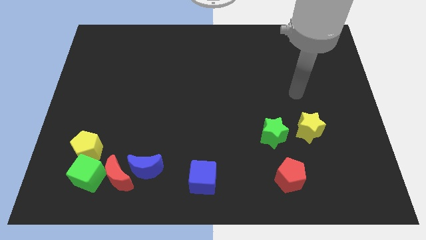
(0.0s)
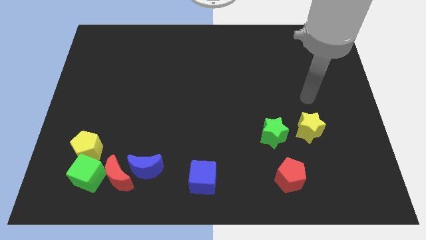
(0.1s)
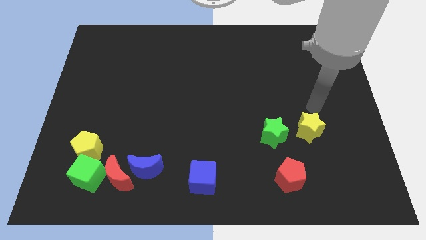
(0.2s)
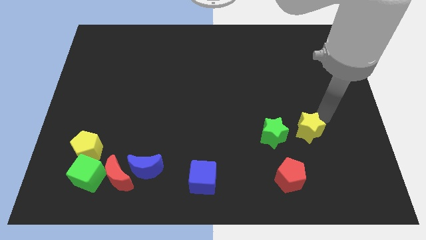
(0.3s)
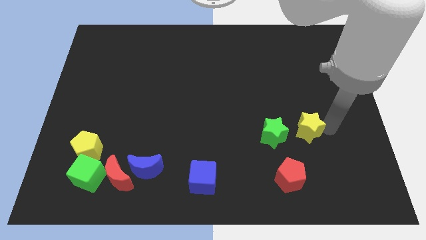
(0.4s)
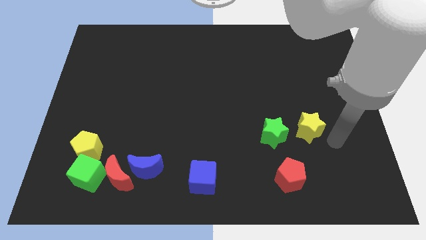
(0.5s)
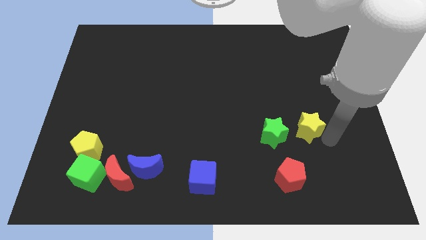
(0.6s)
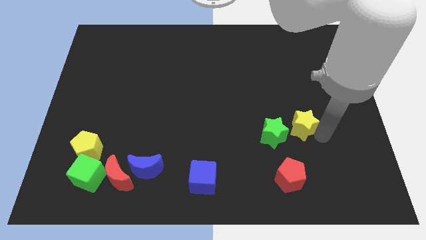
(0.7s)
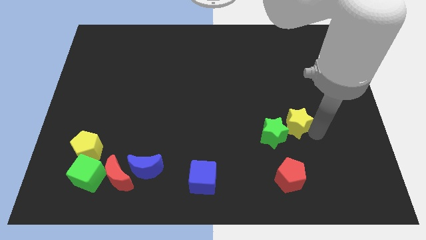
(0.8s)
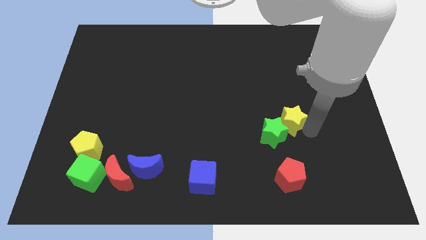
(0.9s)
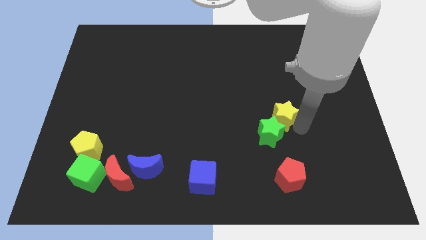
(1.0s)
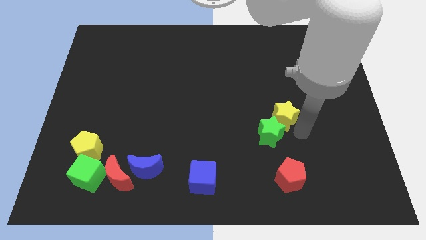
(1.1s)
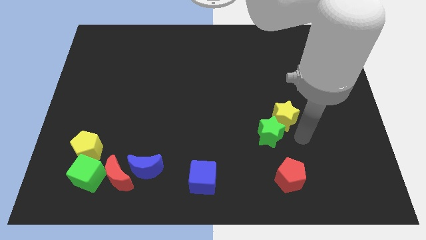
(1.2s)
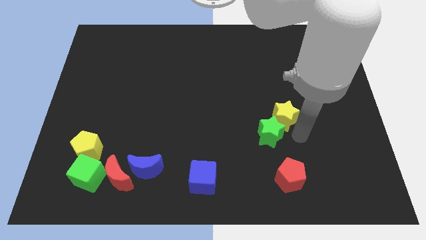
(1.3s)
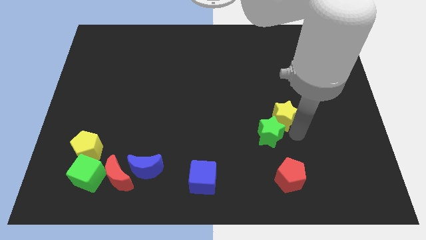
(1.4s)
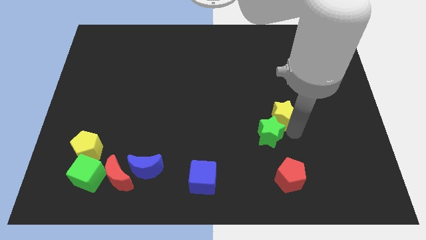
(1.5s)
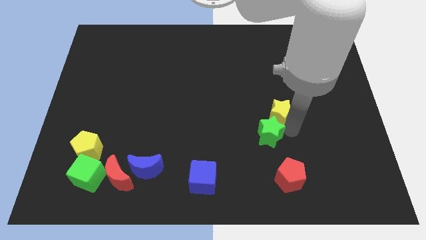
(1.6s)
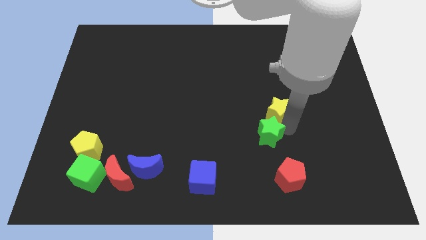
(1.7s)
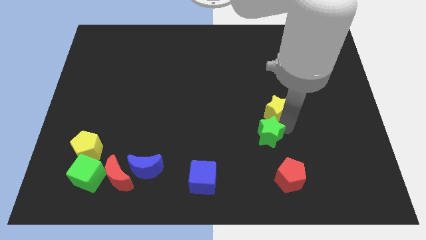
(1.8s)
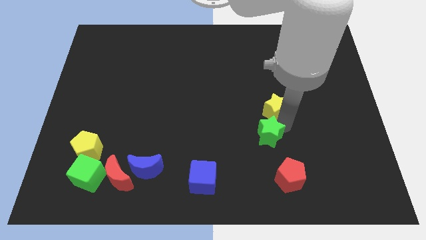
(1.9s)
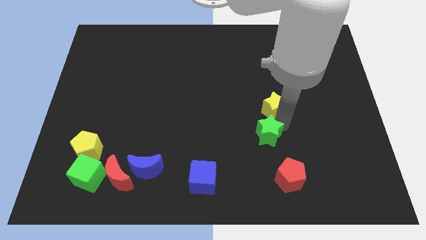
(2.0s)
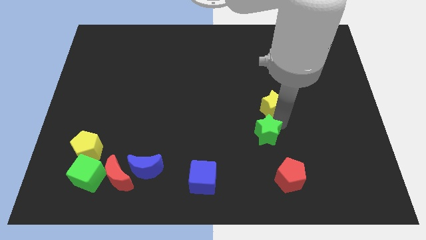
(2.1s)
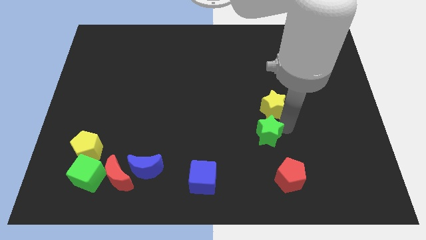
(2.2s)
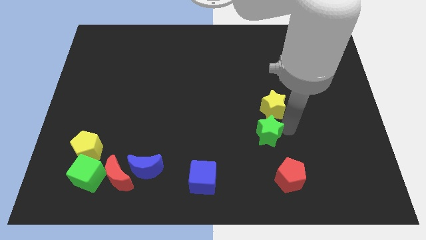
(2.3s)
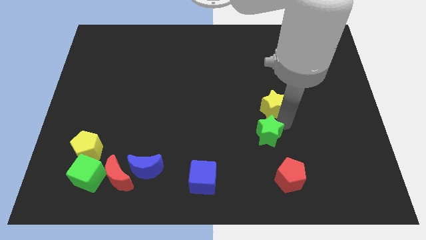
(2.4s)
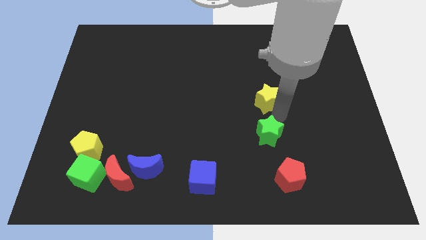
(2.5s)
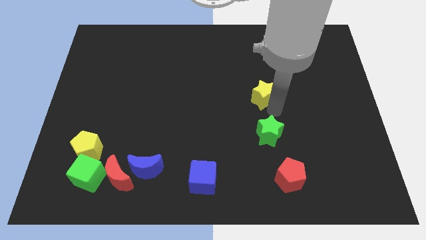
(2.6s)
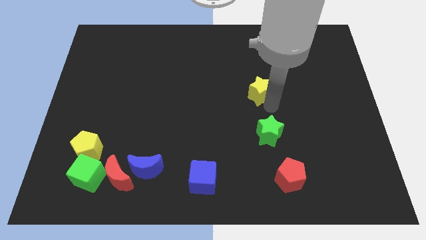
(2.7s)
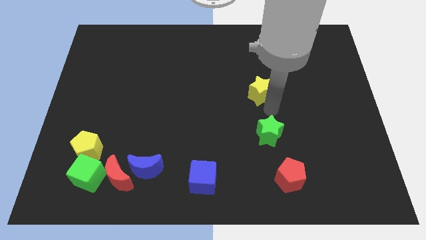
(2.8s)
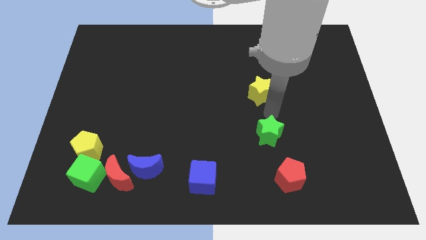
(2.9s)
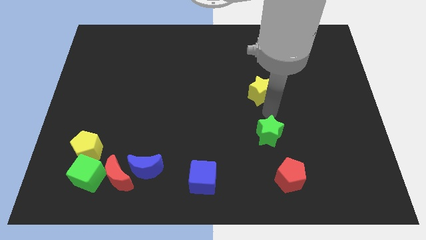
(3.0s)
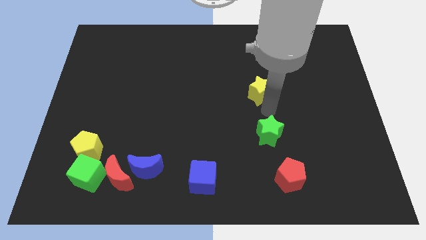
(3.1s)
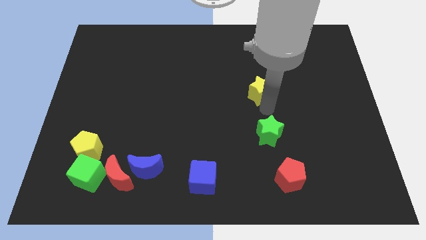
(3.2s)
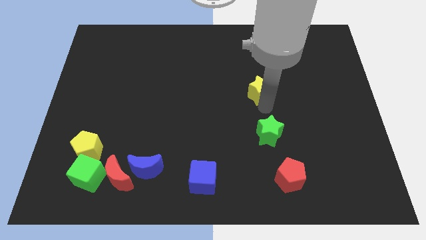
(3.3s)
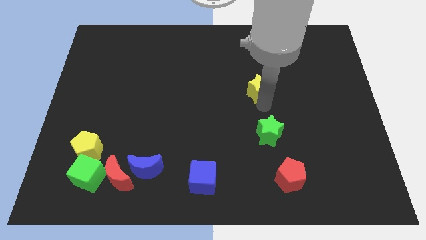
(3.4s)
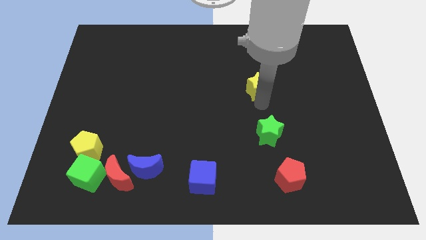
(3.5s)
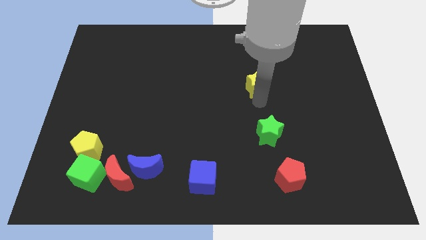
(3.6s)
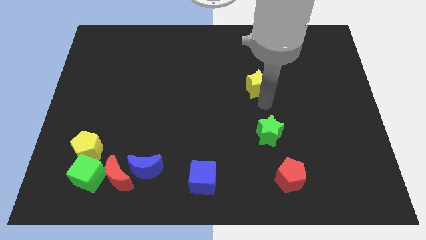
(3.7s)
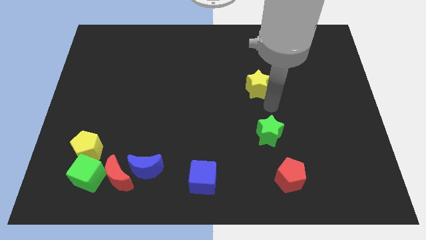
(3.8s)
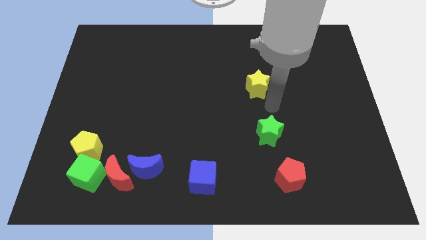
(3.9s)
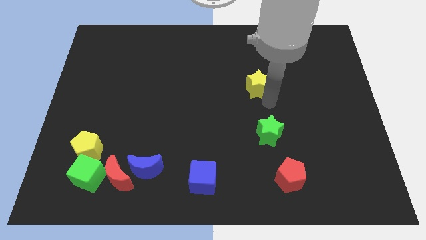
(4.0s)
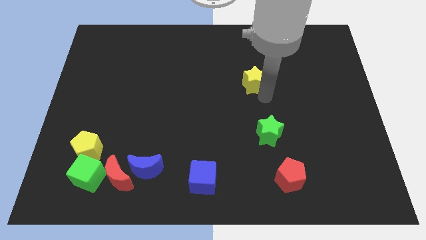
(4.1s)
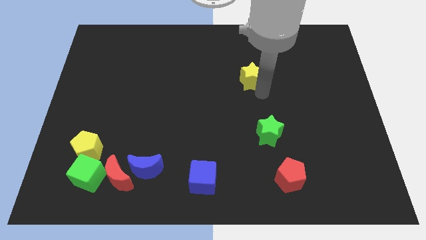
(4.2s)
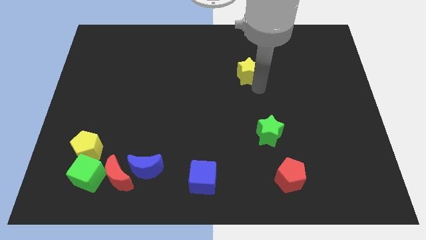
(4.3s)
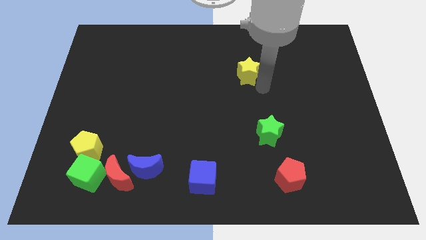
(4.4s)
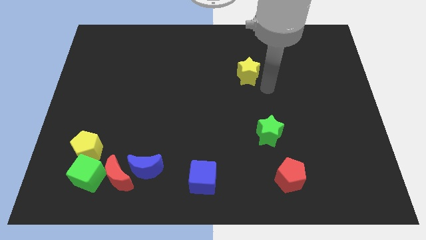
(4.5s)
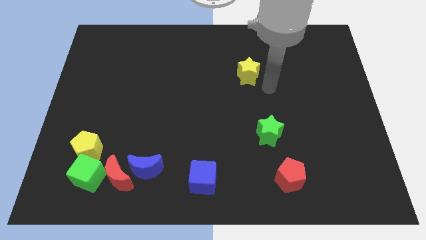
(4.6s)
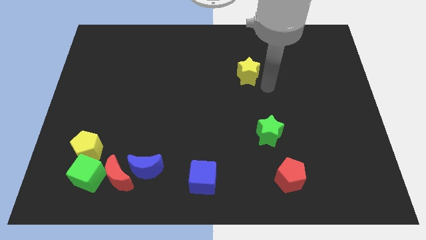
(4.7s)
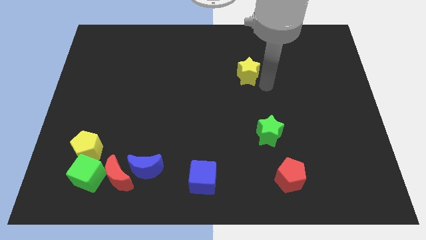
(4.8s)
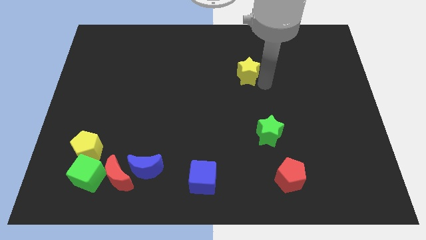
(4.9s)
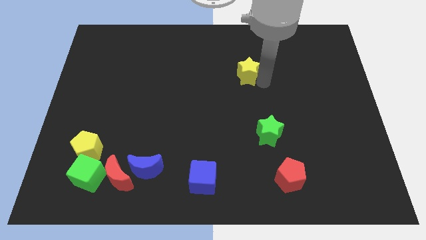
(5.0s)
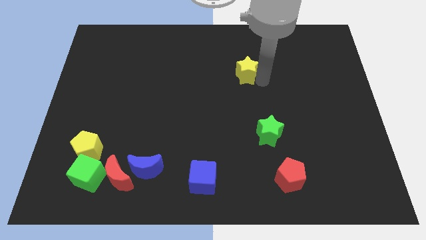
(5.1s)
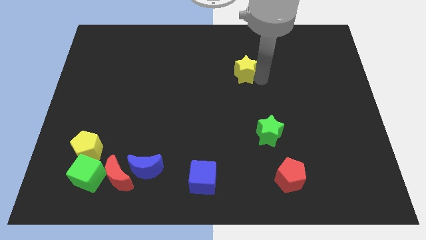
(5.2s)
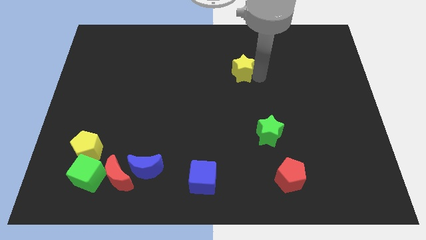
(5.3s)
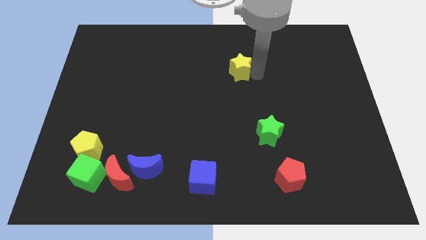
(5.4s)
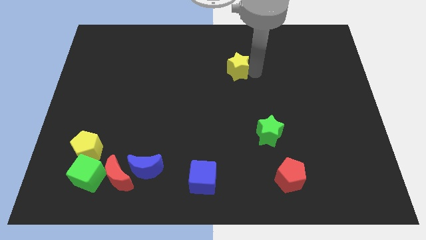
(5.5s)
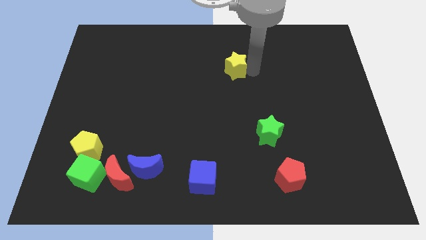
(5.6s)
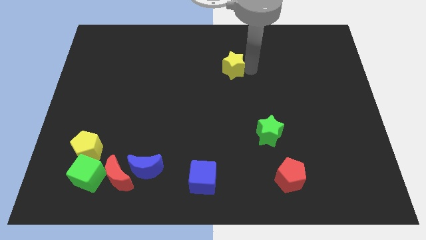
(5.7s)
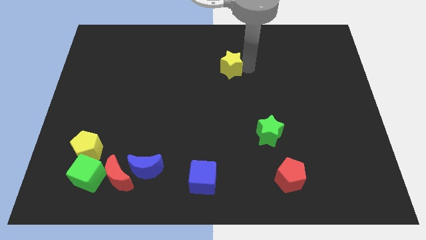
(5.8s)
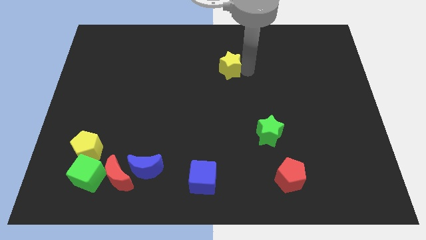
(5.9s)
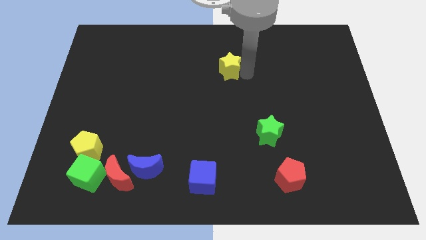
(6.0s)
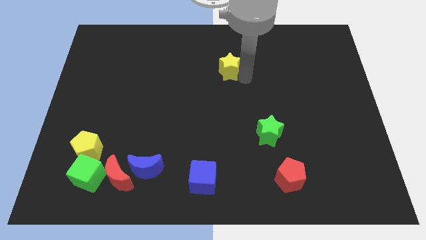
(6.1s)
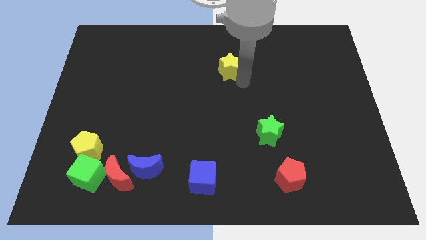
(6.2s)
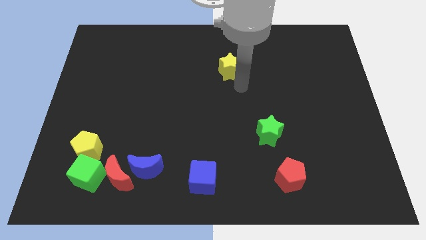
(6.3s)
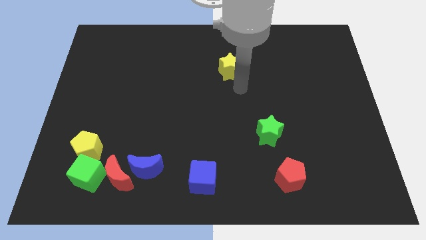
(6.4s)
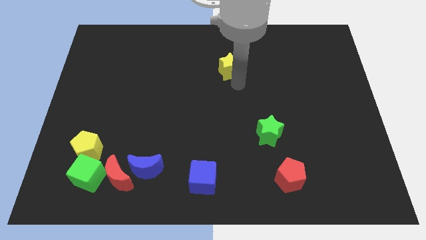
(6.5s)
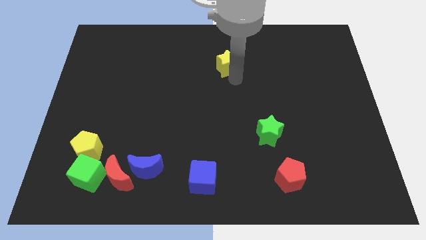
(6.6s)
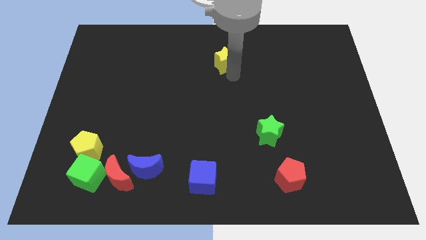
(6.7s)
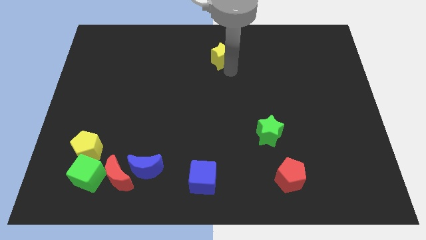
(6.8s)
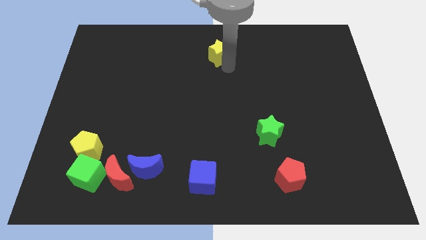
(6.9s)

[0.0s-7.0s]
push the yellow star to the top

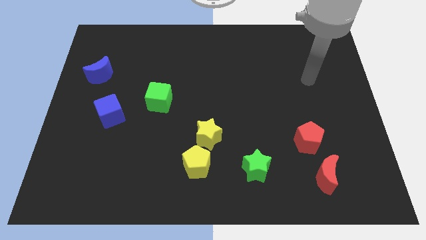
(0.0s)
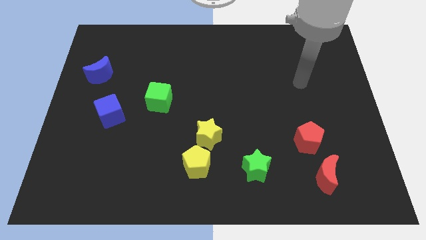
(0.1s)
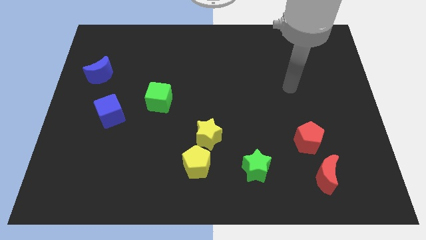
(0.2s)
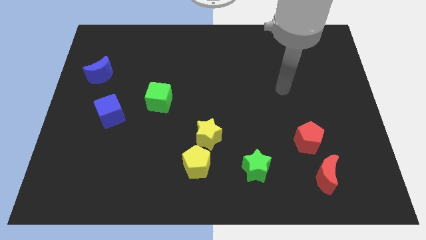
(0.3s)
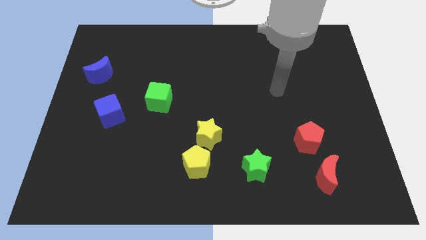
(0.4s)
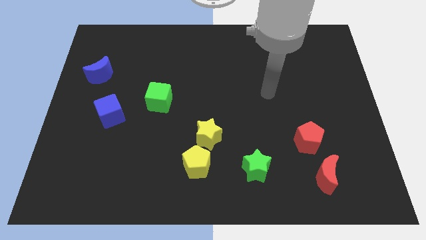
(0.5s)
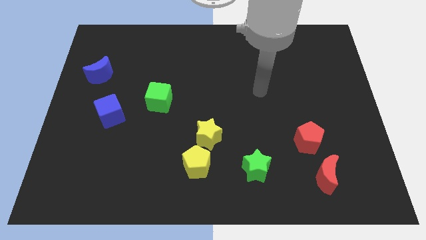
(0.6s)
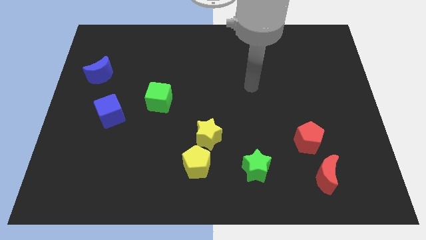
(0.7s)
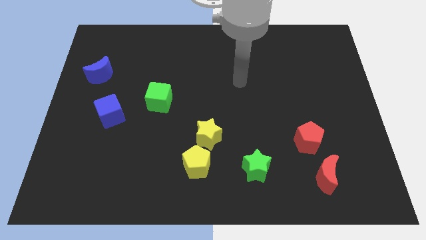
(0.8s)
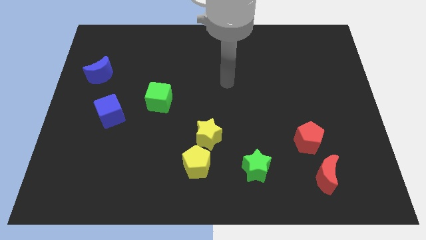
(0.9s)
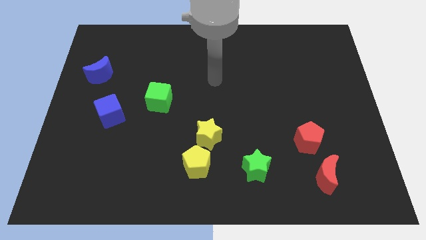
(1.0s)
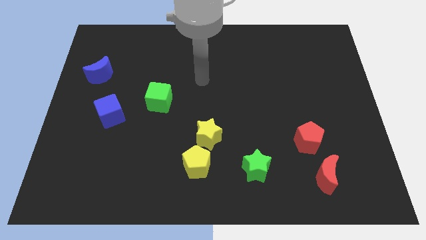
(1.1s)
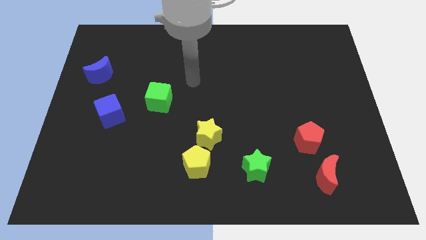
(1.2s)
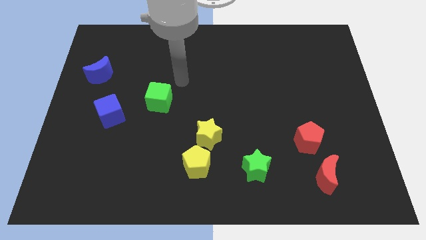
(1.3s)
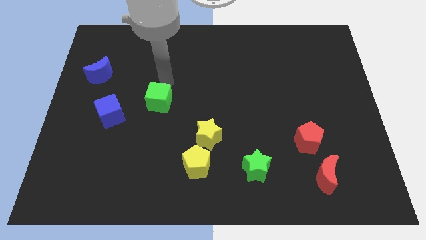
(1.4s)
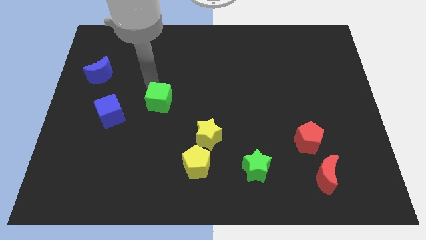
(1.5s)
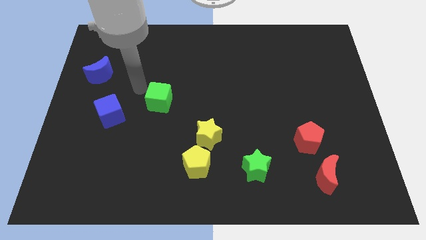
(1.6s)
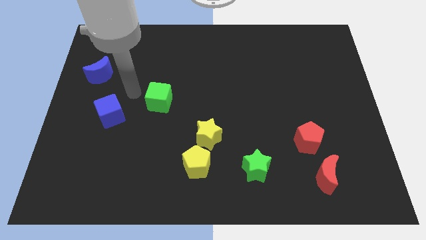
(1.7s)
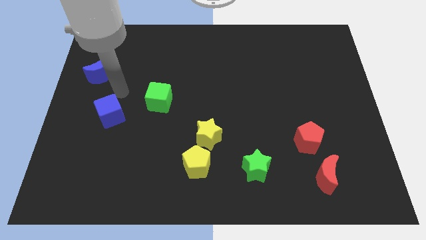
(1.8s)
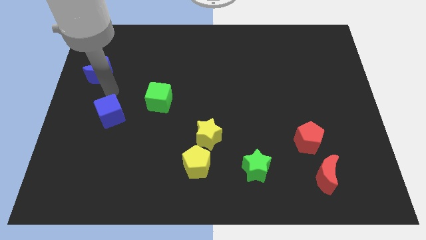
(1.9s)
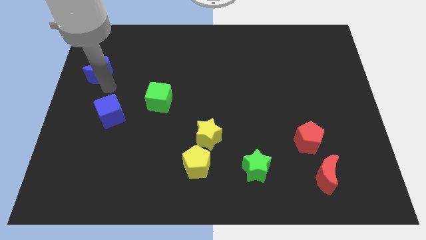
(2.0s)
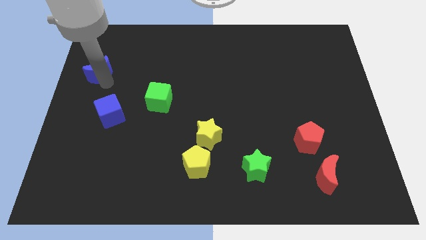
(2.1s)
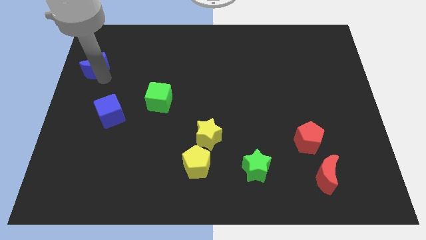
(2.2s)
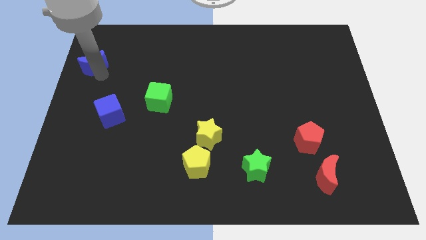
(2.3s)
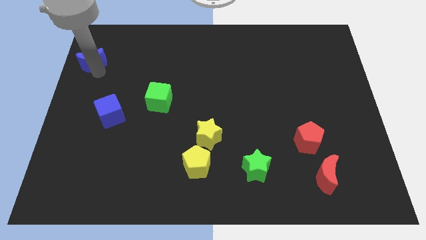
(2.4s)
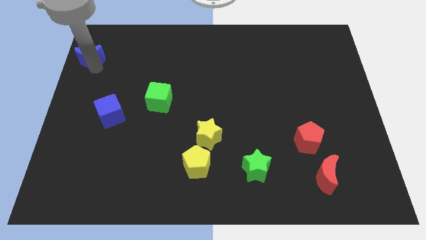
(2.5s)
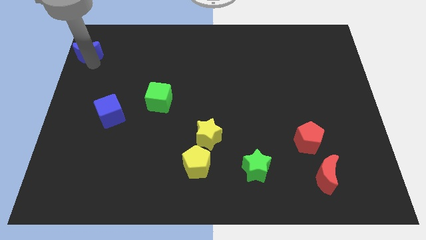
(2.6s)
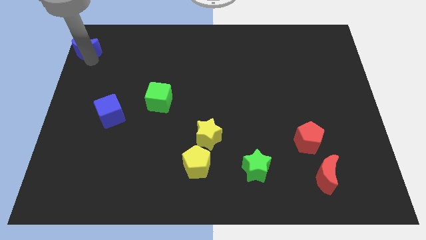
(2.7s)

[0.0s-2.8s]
push the blue moon to the upper left corner
